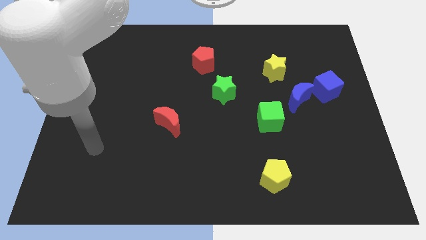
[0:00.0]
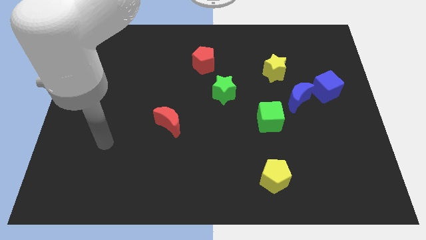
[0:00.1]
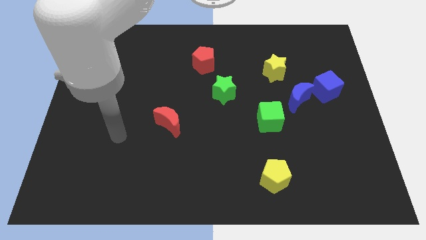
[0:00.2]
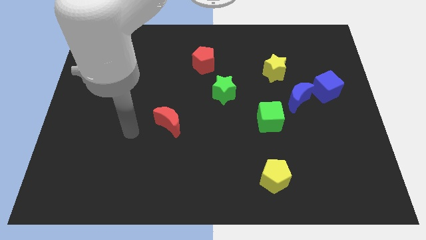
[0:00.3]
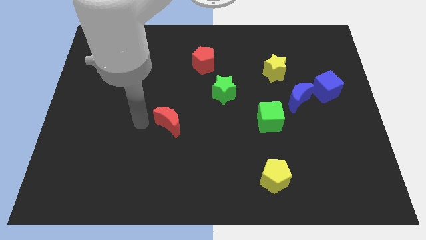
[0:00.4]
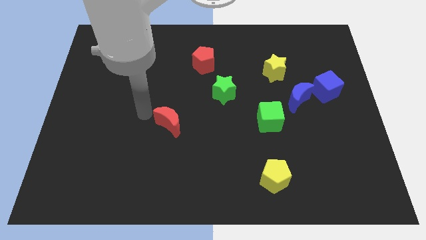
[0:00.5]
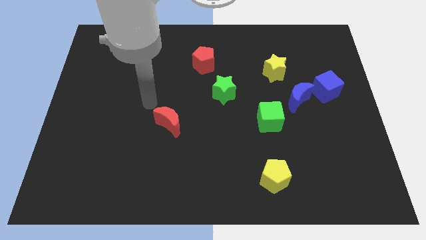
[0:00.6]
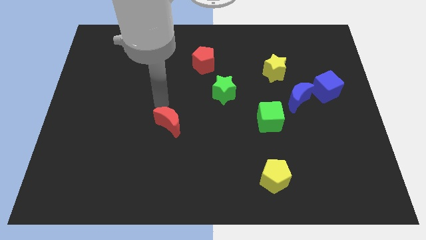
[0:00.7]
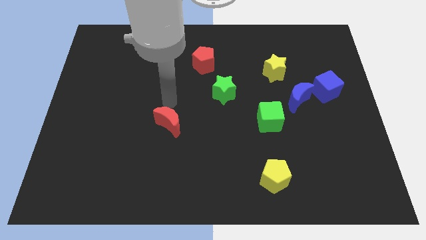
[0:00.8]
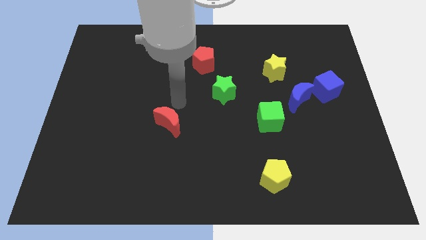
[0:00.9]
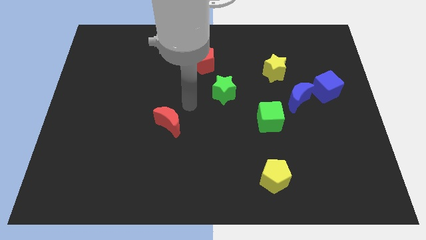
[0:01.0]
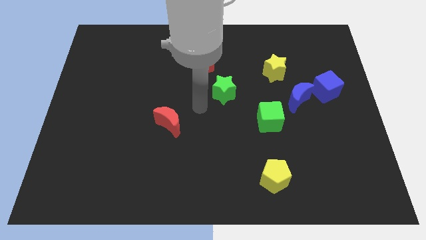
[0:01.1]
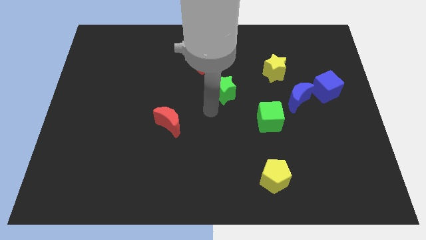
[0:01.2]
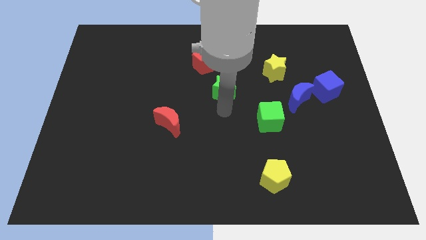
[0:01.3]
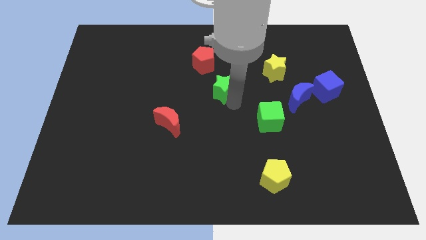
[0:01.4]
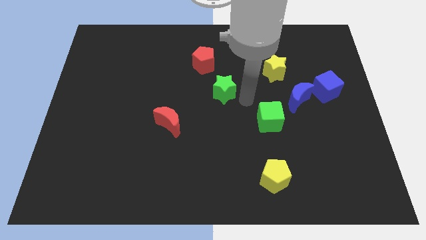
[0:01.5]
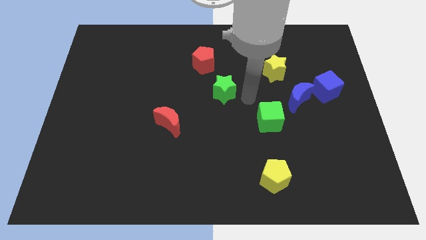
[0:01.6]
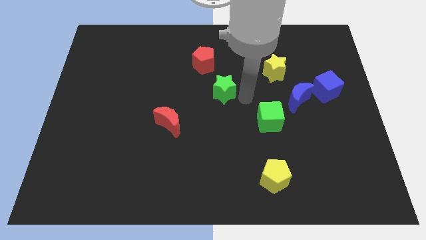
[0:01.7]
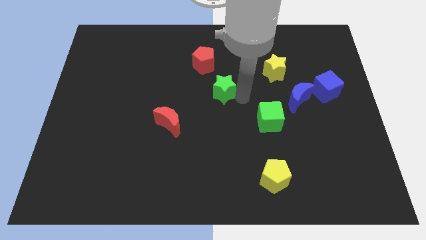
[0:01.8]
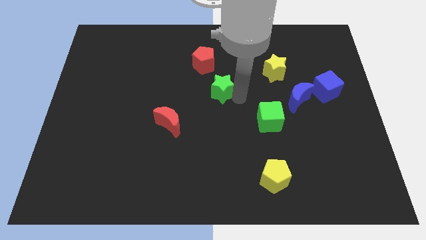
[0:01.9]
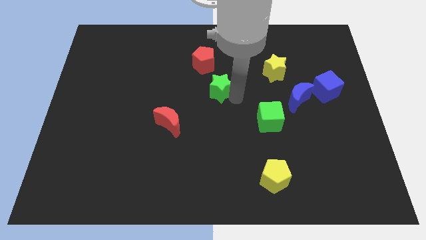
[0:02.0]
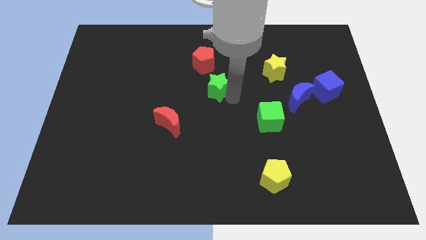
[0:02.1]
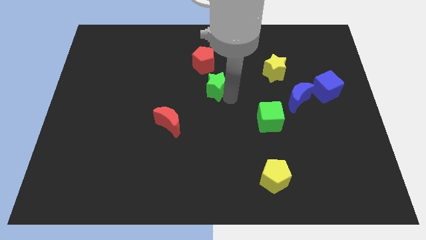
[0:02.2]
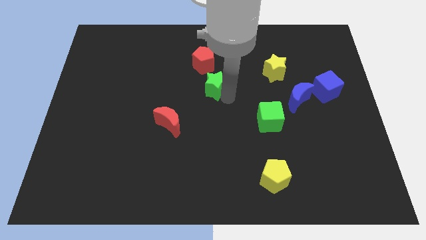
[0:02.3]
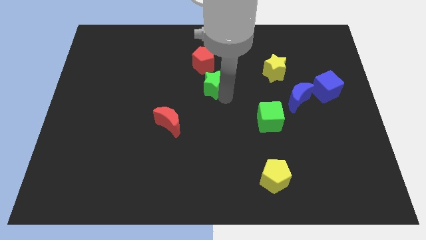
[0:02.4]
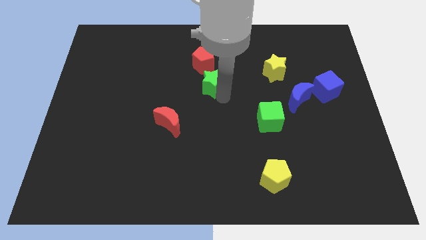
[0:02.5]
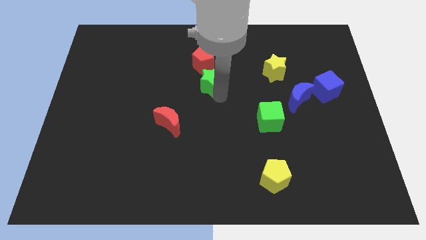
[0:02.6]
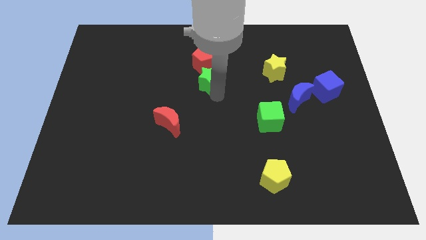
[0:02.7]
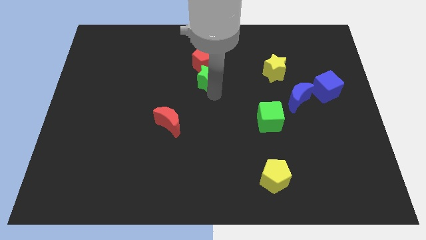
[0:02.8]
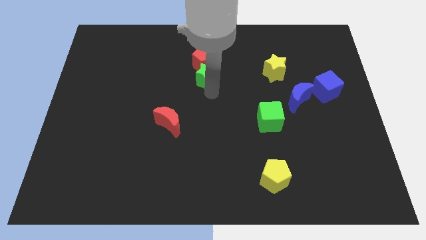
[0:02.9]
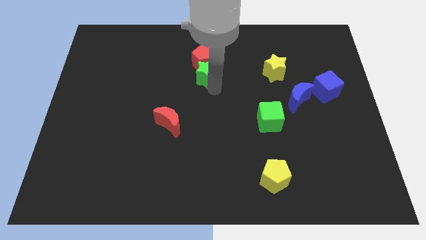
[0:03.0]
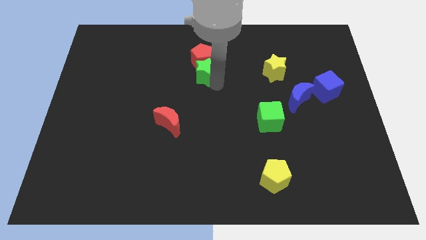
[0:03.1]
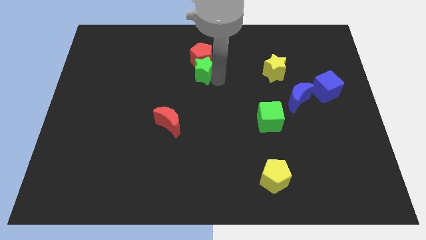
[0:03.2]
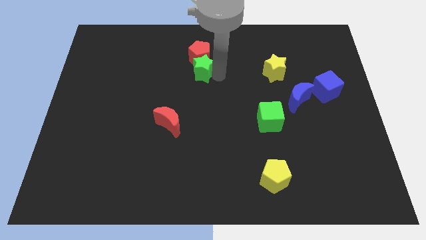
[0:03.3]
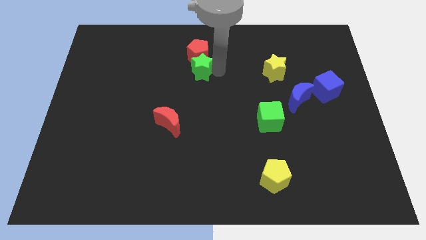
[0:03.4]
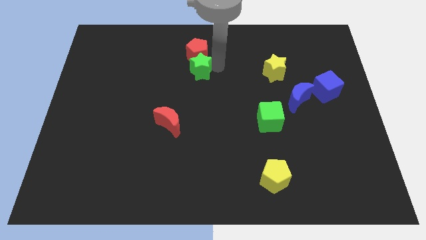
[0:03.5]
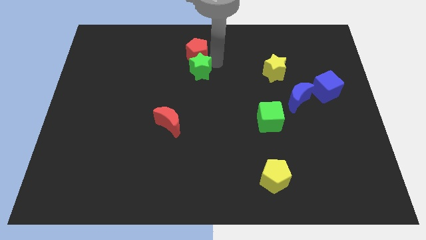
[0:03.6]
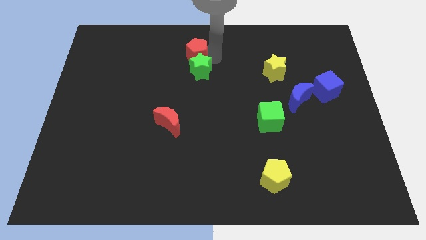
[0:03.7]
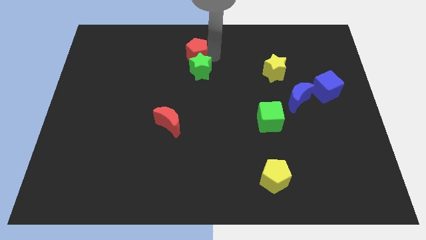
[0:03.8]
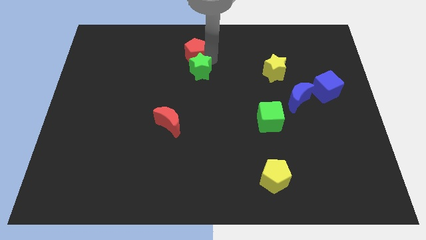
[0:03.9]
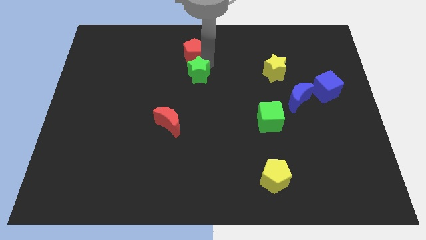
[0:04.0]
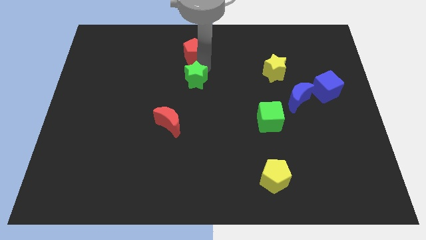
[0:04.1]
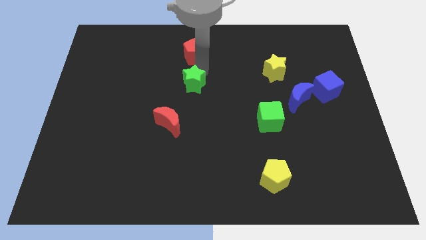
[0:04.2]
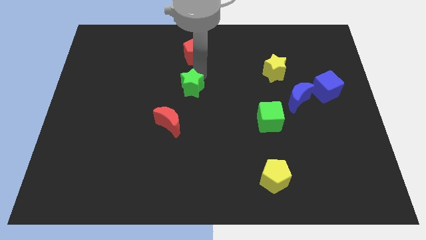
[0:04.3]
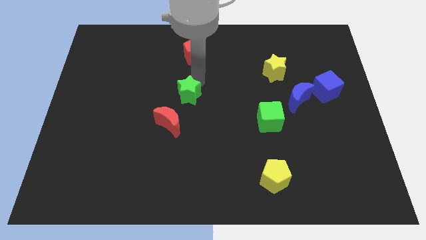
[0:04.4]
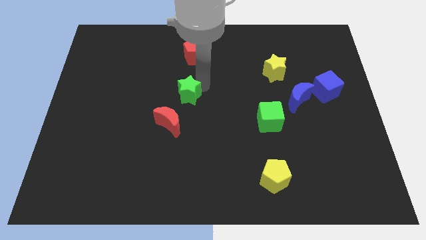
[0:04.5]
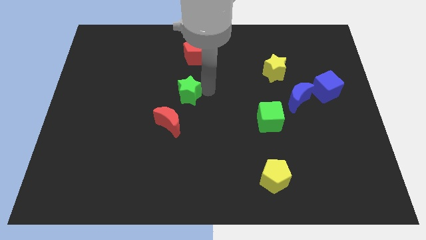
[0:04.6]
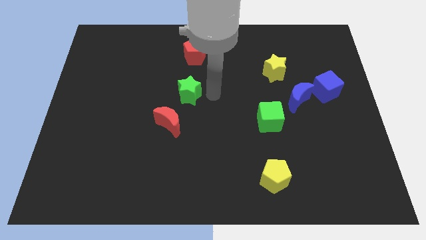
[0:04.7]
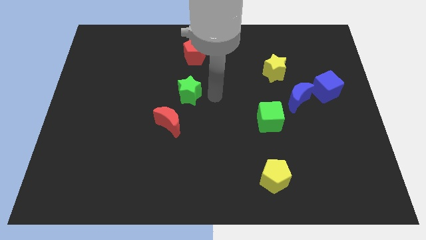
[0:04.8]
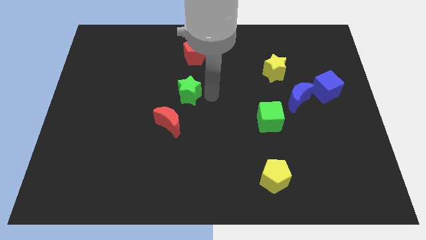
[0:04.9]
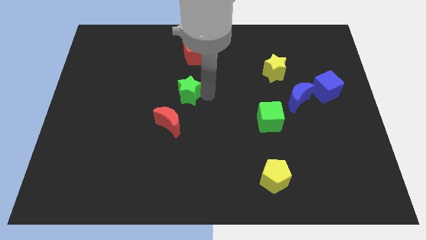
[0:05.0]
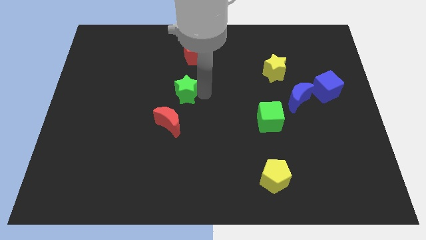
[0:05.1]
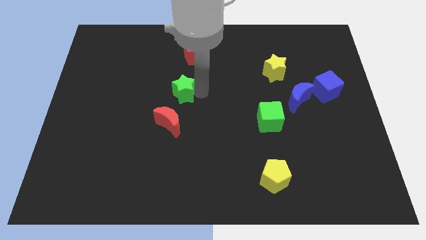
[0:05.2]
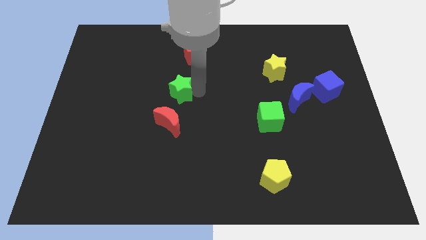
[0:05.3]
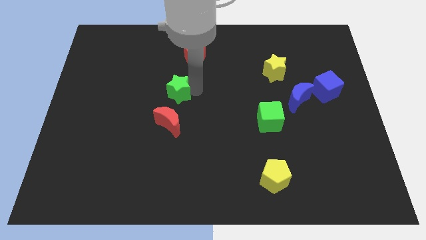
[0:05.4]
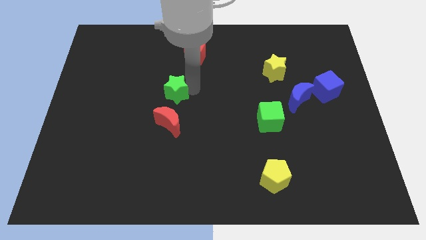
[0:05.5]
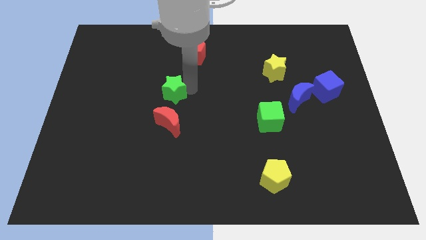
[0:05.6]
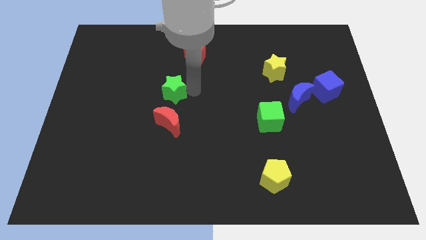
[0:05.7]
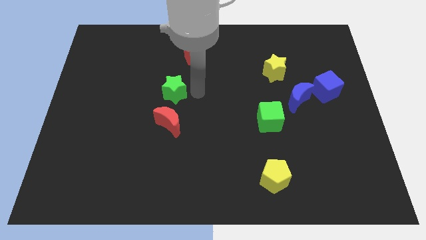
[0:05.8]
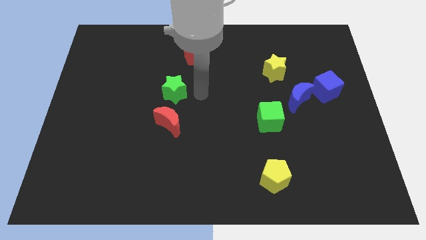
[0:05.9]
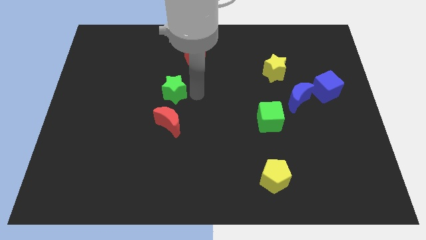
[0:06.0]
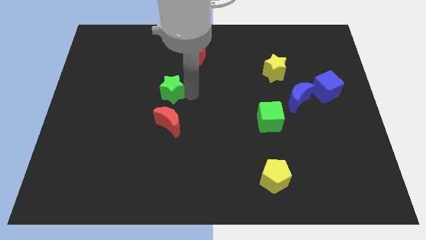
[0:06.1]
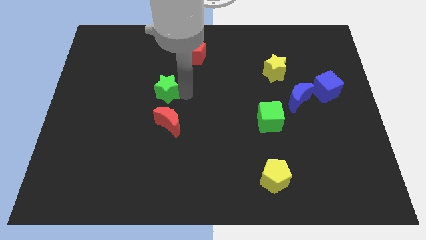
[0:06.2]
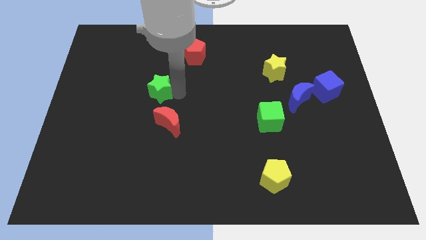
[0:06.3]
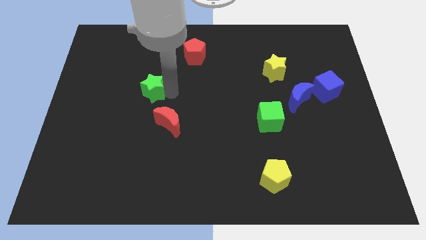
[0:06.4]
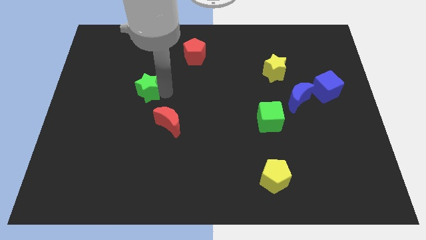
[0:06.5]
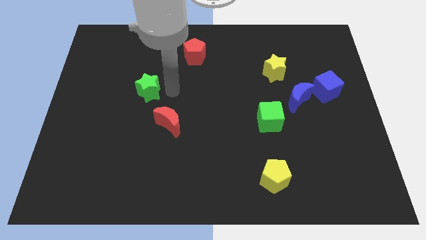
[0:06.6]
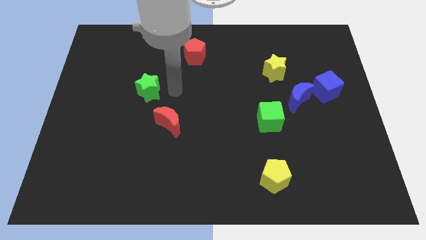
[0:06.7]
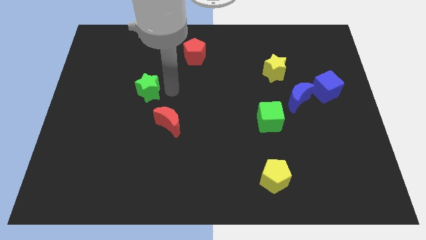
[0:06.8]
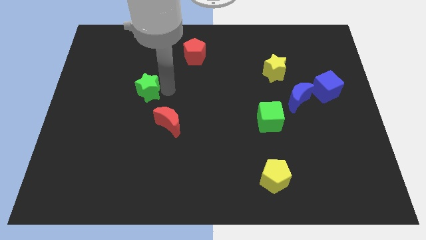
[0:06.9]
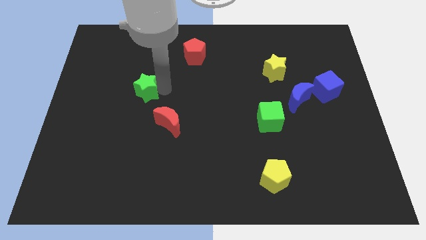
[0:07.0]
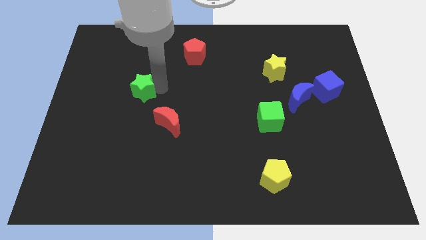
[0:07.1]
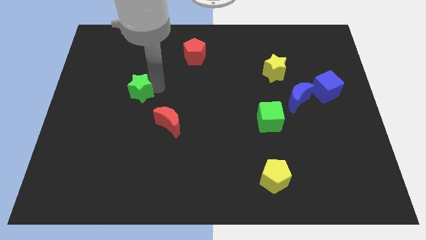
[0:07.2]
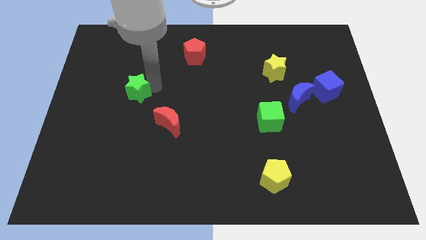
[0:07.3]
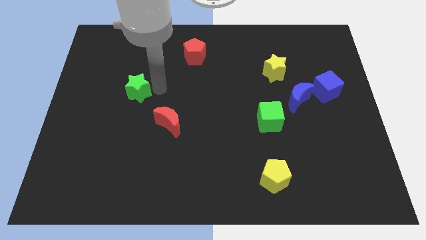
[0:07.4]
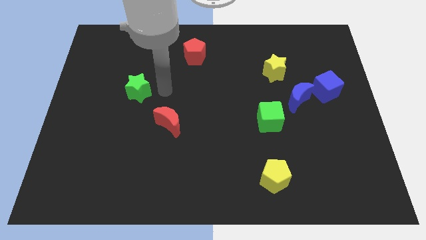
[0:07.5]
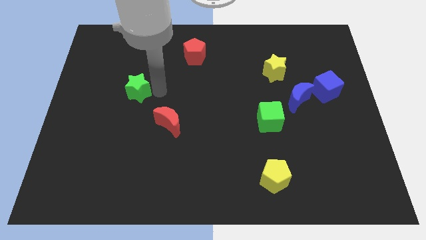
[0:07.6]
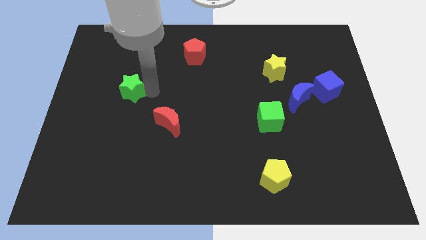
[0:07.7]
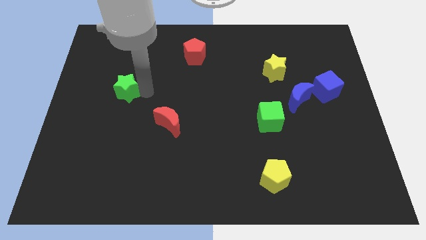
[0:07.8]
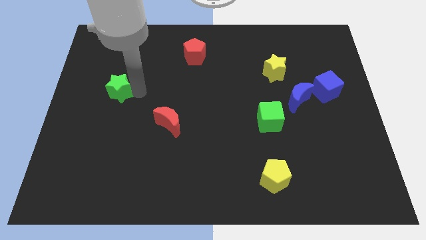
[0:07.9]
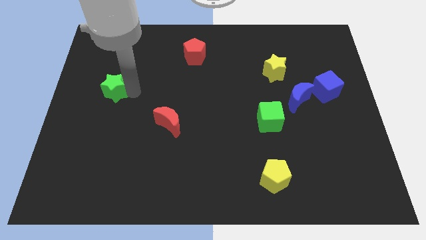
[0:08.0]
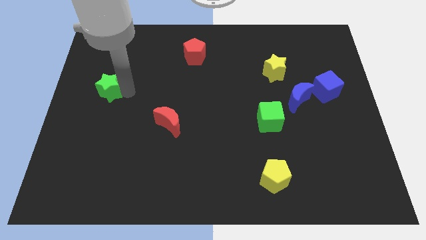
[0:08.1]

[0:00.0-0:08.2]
put the green star to the center left
